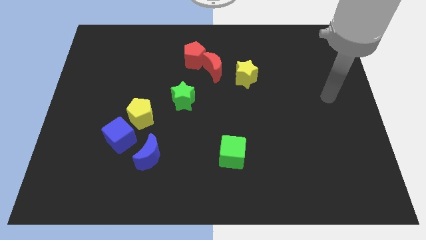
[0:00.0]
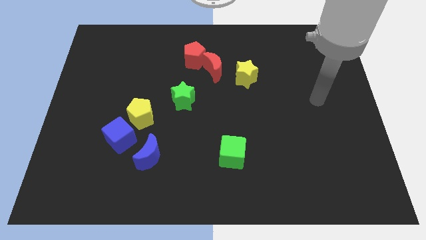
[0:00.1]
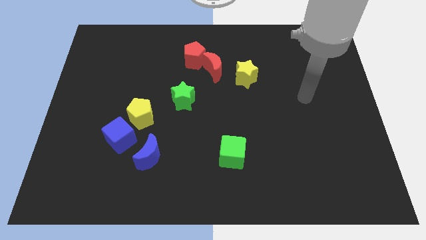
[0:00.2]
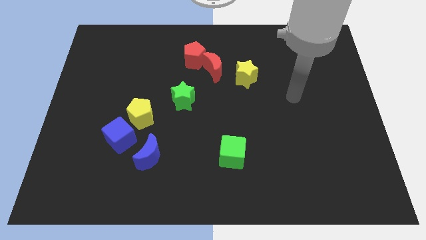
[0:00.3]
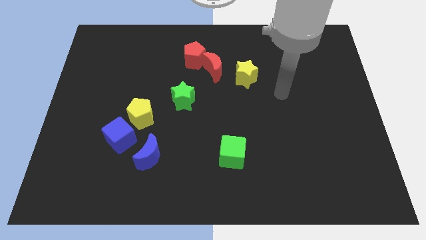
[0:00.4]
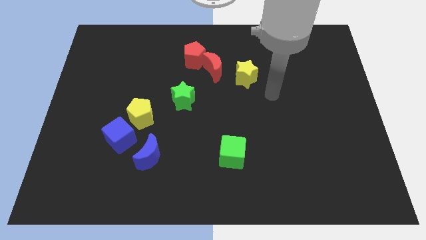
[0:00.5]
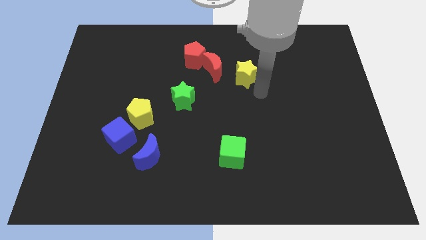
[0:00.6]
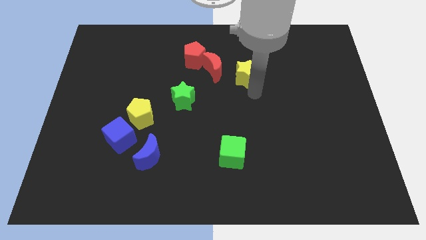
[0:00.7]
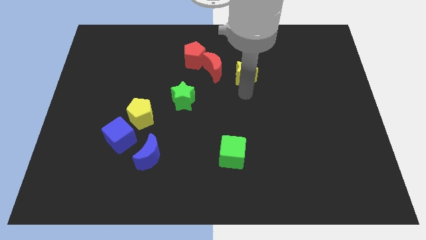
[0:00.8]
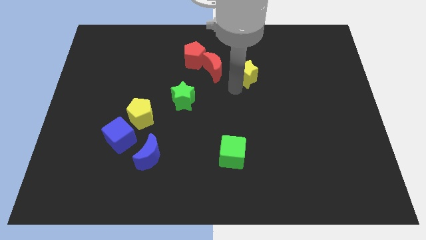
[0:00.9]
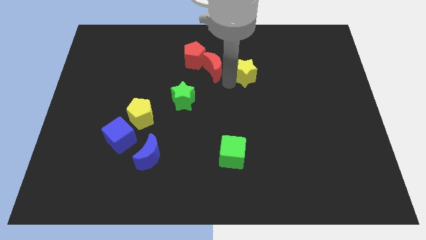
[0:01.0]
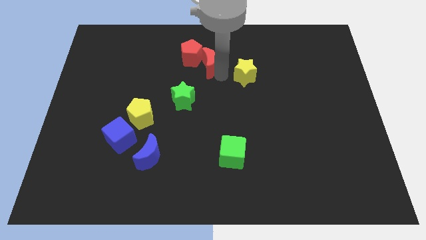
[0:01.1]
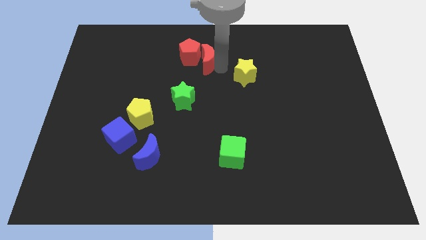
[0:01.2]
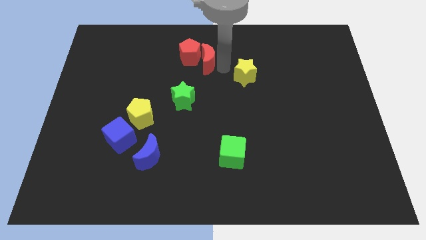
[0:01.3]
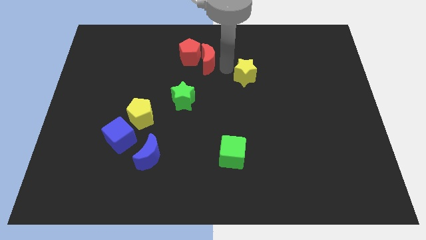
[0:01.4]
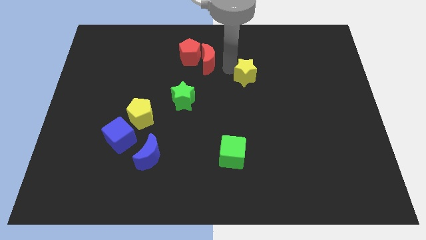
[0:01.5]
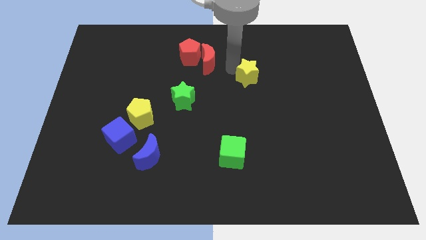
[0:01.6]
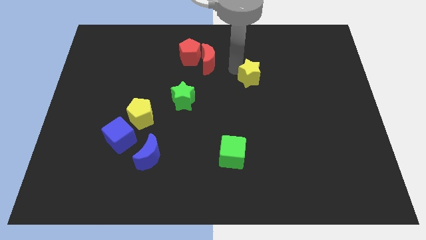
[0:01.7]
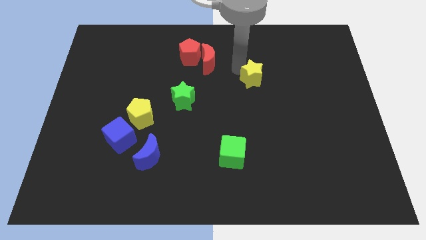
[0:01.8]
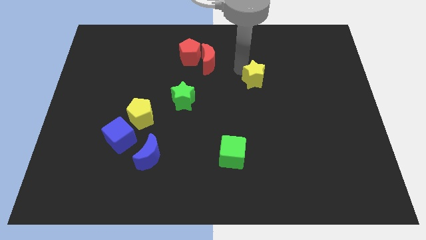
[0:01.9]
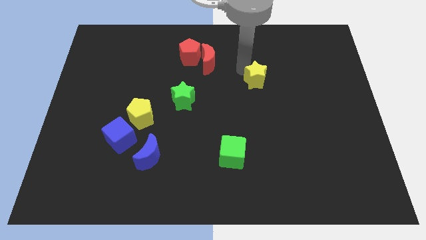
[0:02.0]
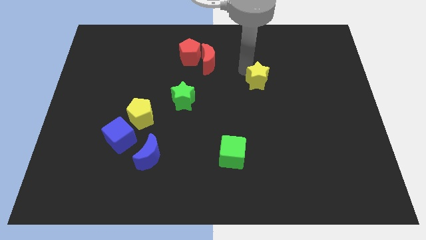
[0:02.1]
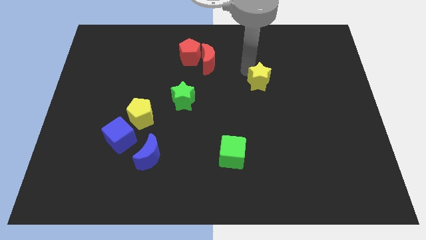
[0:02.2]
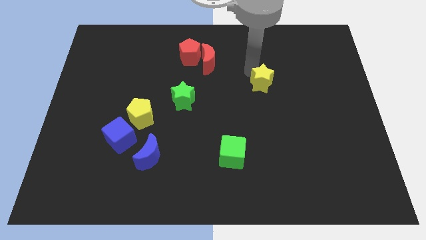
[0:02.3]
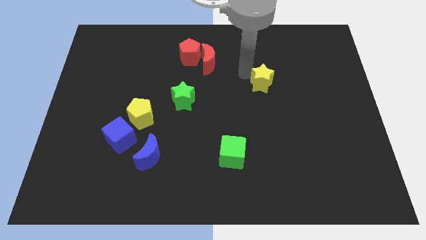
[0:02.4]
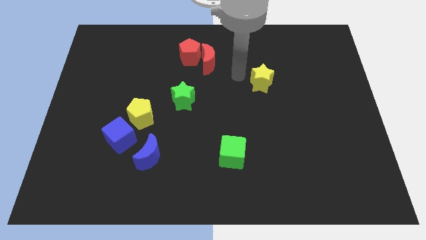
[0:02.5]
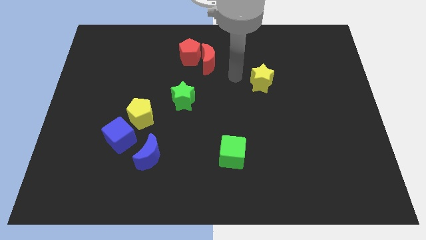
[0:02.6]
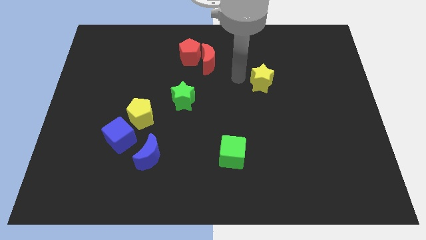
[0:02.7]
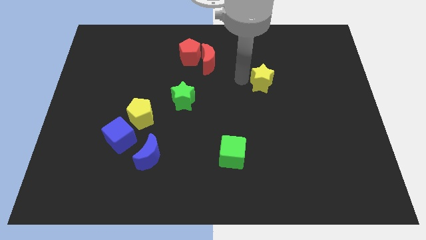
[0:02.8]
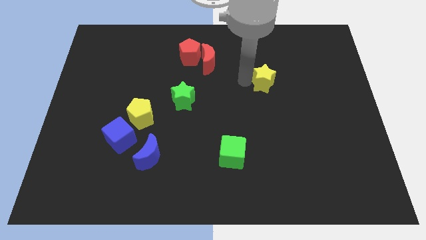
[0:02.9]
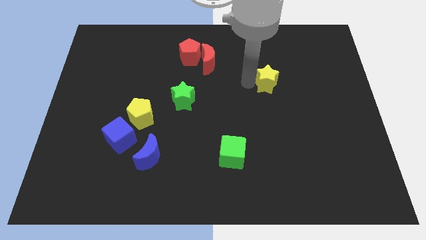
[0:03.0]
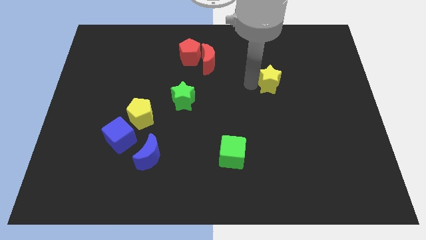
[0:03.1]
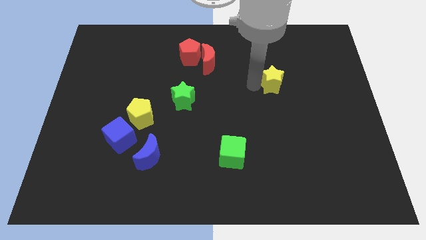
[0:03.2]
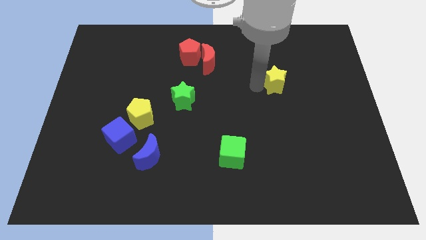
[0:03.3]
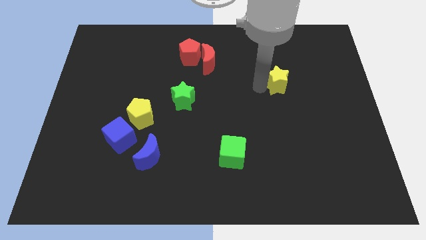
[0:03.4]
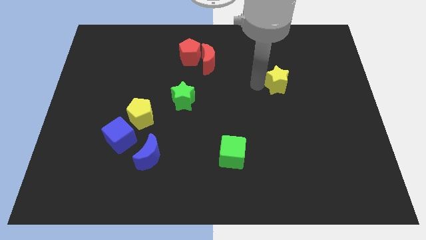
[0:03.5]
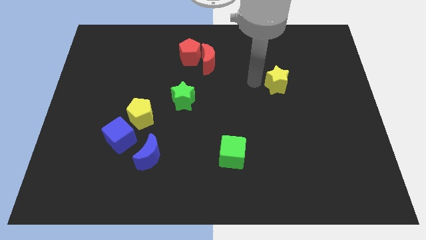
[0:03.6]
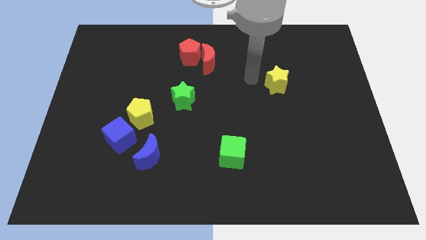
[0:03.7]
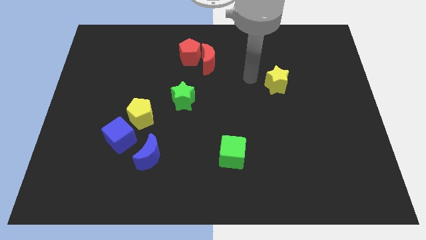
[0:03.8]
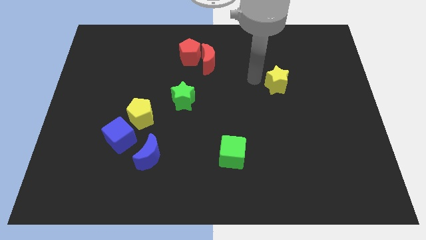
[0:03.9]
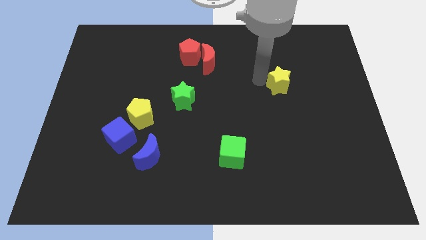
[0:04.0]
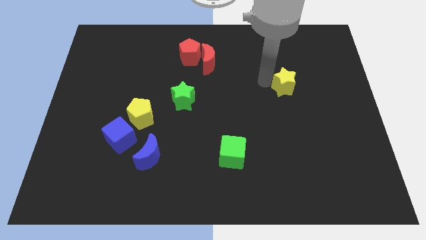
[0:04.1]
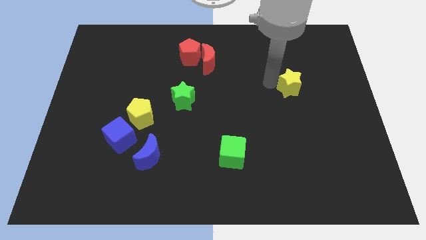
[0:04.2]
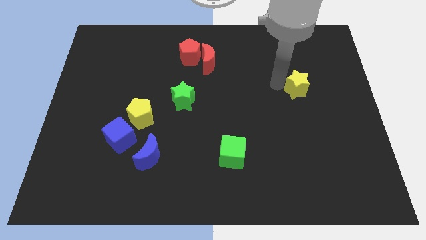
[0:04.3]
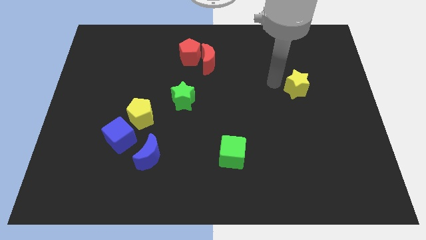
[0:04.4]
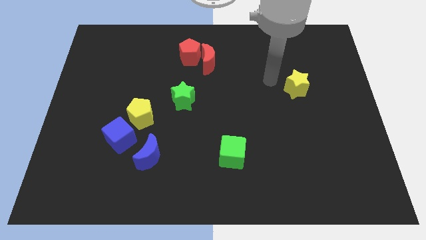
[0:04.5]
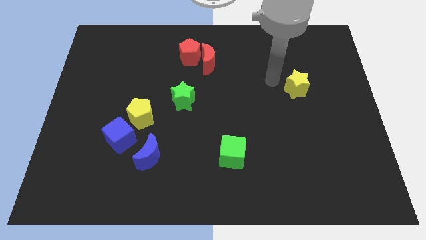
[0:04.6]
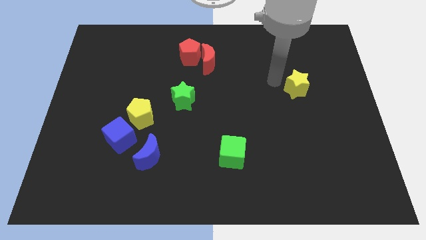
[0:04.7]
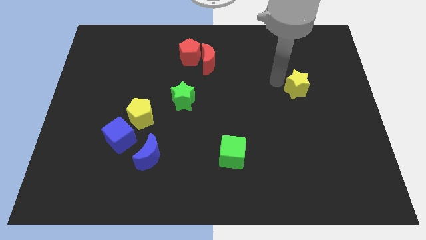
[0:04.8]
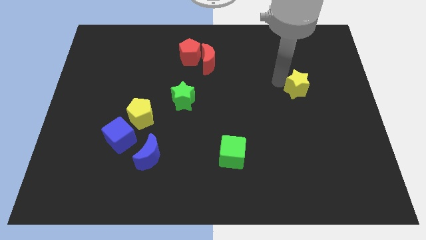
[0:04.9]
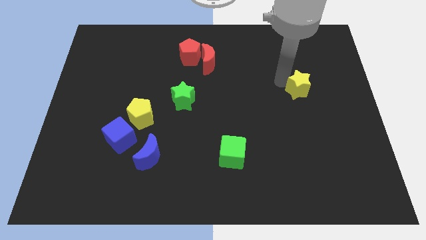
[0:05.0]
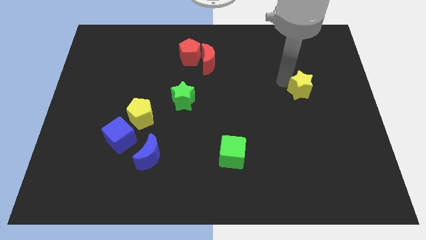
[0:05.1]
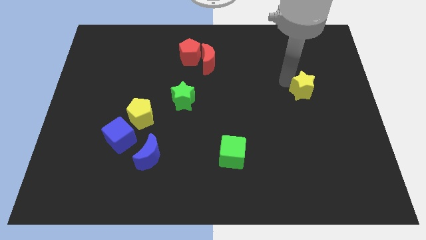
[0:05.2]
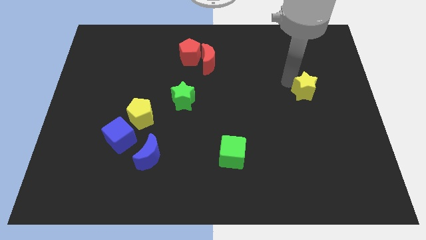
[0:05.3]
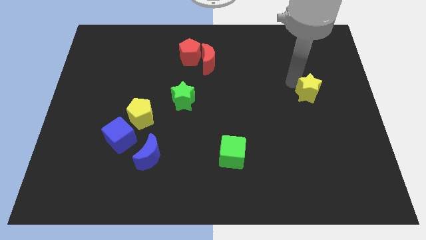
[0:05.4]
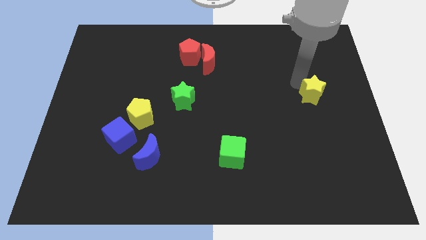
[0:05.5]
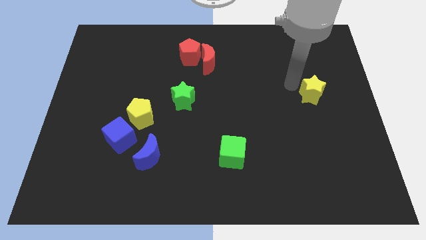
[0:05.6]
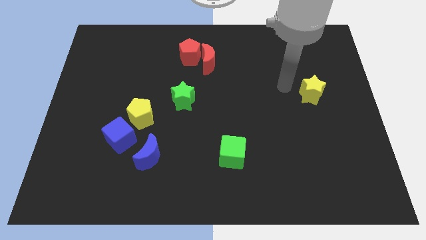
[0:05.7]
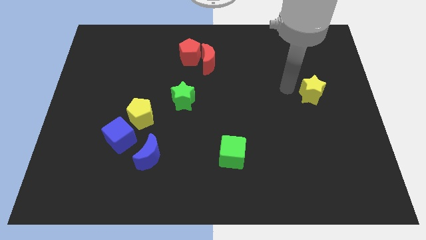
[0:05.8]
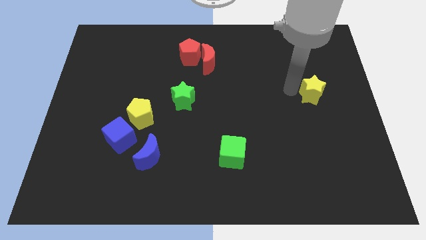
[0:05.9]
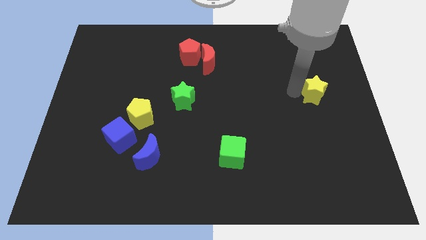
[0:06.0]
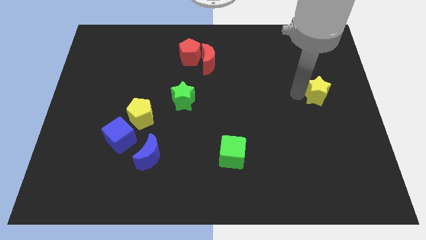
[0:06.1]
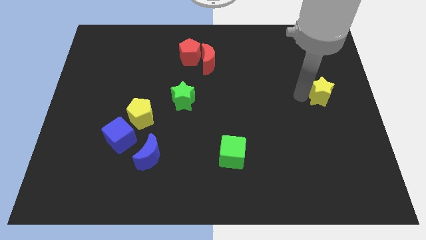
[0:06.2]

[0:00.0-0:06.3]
slide the yellow star to the right side

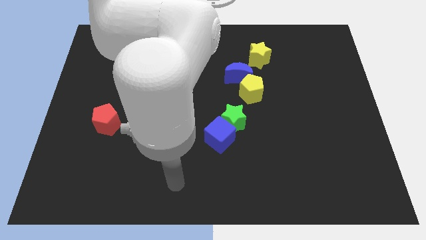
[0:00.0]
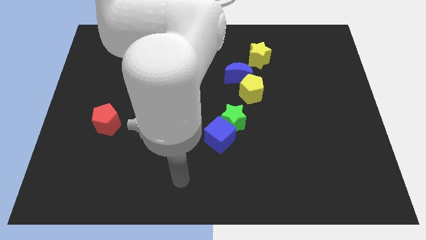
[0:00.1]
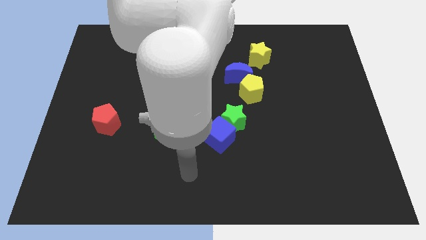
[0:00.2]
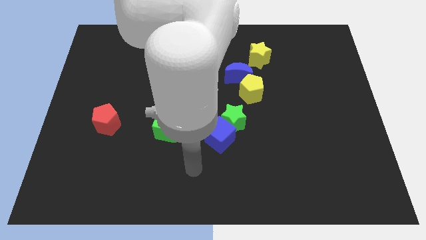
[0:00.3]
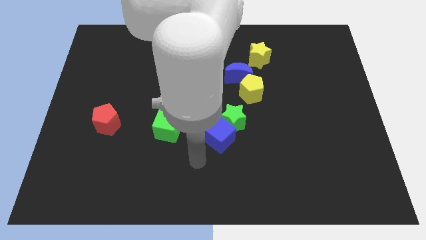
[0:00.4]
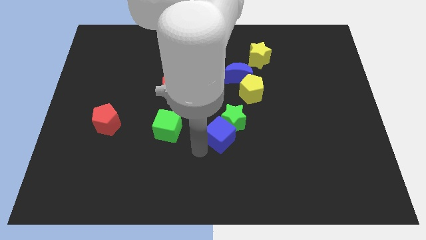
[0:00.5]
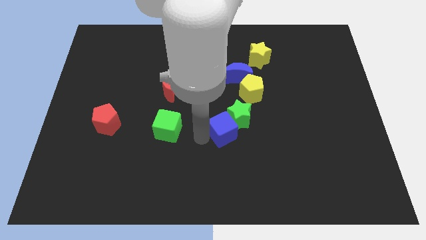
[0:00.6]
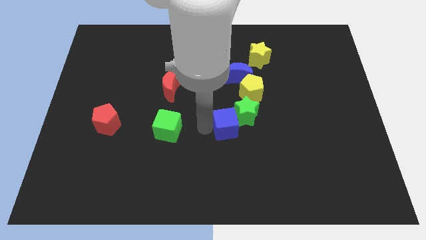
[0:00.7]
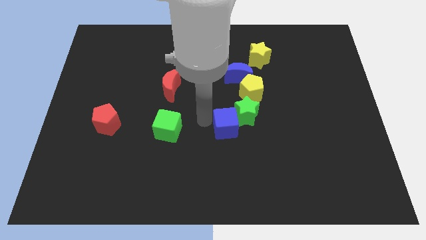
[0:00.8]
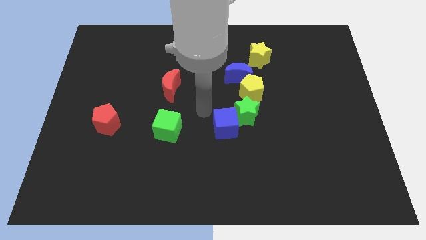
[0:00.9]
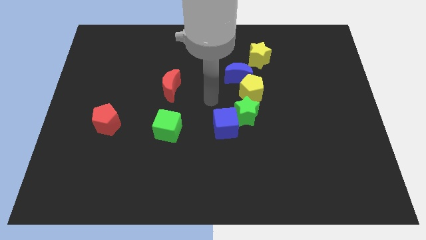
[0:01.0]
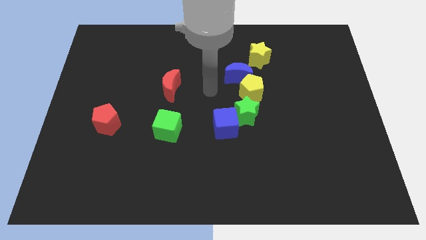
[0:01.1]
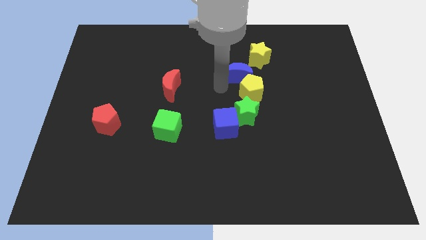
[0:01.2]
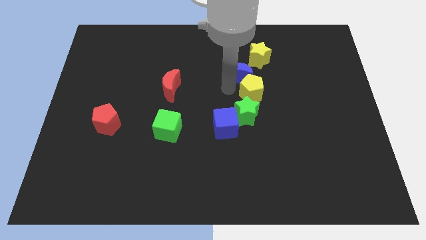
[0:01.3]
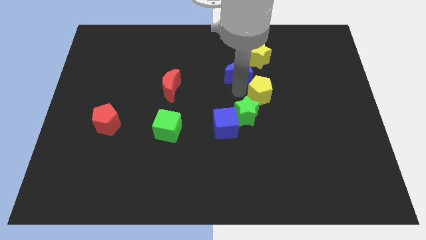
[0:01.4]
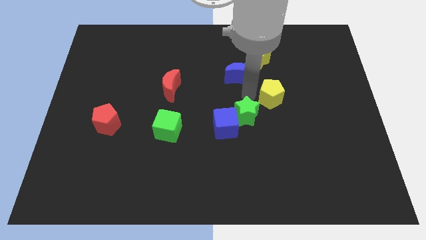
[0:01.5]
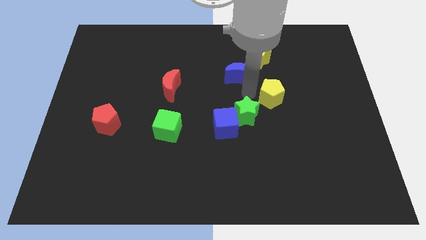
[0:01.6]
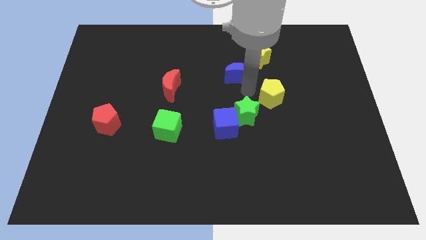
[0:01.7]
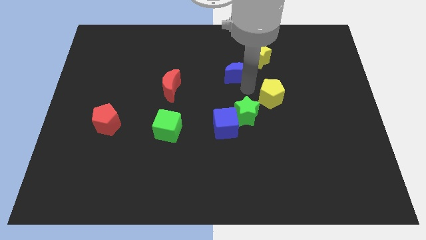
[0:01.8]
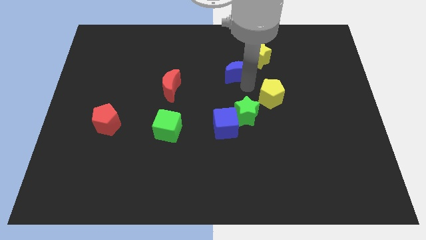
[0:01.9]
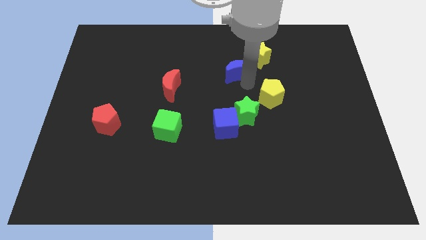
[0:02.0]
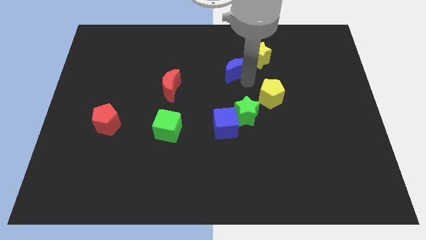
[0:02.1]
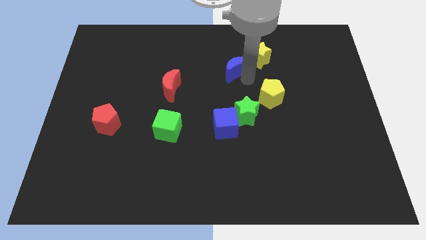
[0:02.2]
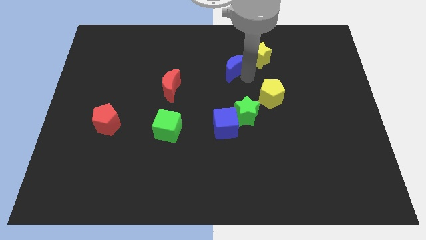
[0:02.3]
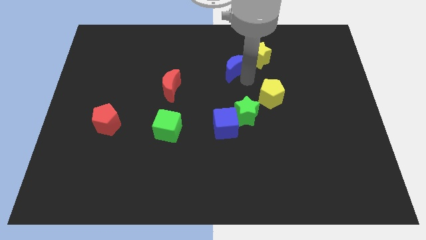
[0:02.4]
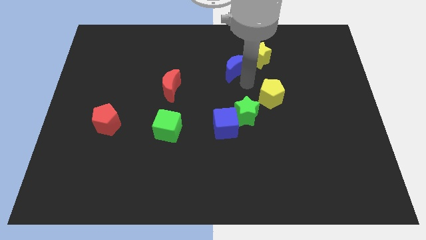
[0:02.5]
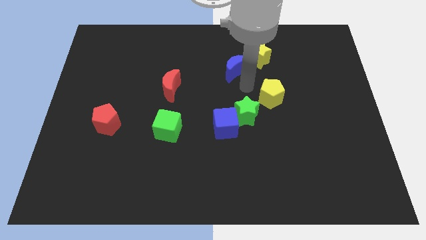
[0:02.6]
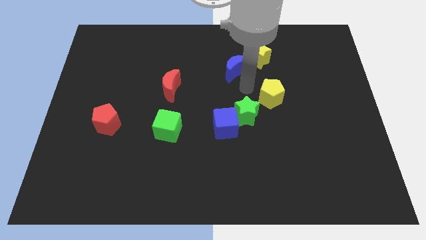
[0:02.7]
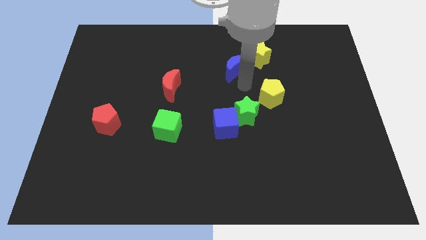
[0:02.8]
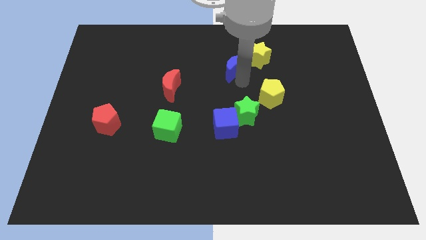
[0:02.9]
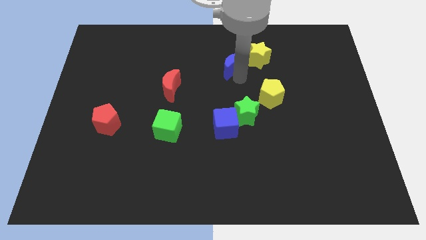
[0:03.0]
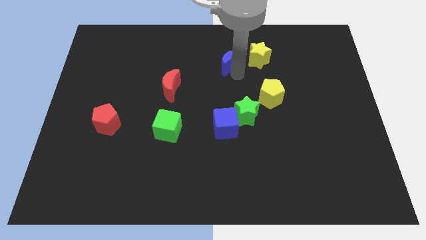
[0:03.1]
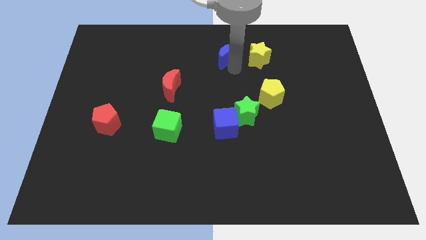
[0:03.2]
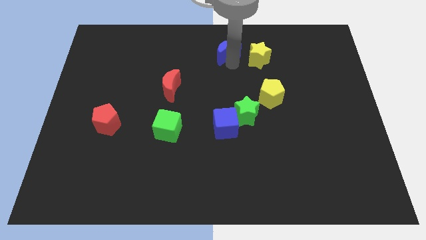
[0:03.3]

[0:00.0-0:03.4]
push the blue moon to the towards your base
